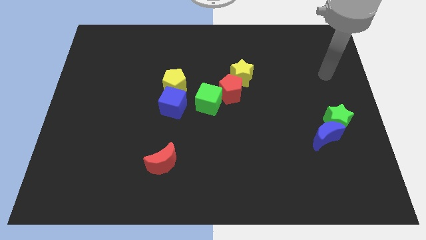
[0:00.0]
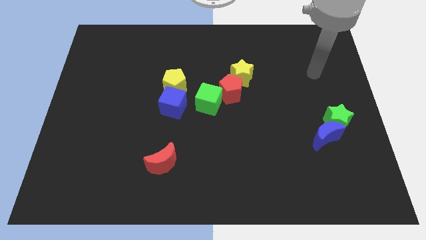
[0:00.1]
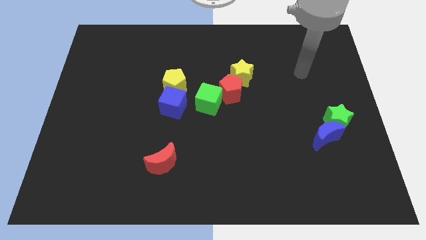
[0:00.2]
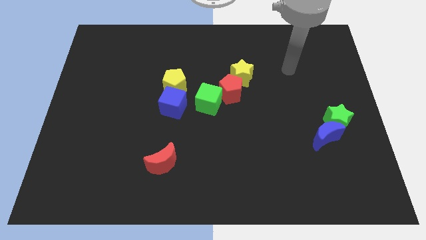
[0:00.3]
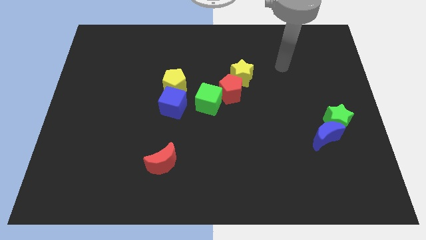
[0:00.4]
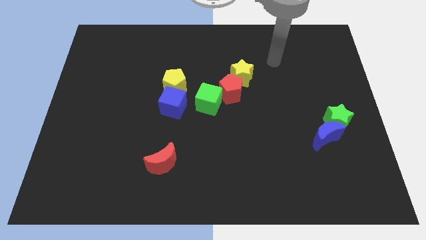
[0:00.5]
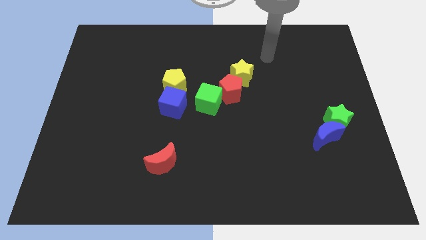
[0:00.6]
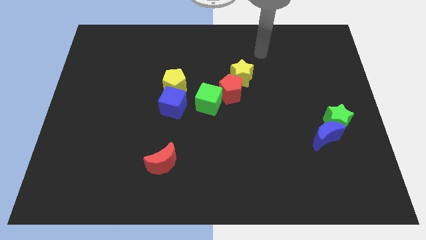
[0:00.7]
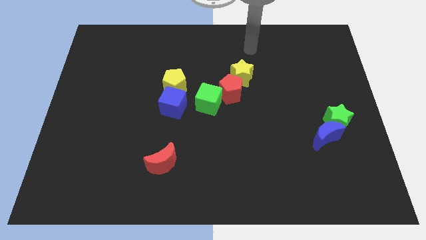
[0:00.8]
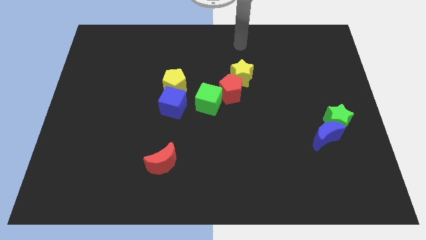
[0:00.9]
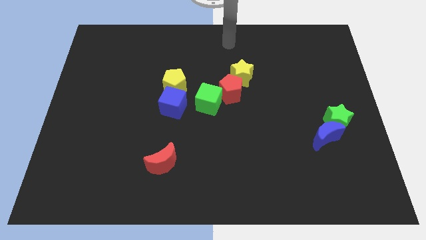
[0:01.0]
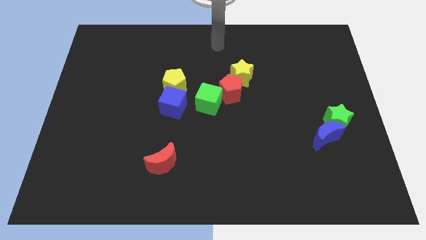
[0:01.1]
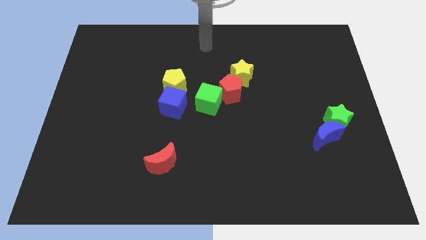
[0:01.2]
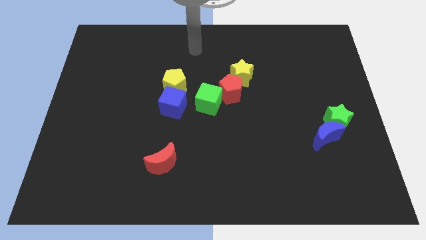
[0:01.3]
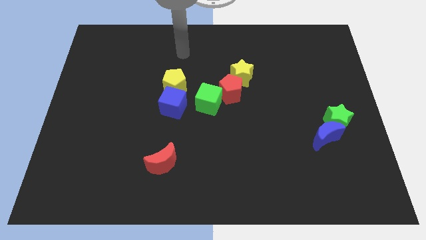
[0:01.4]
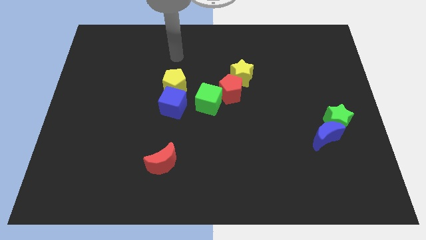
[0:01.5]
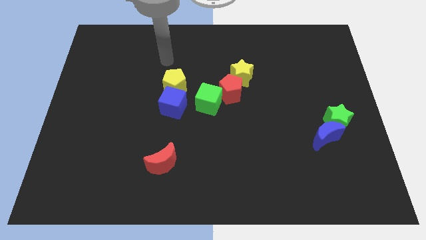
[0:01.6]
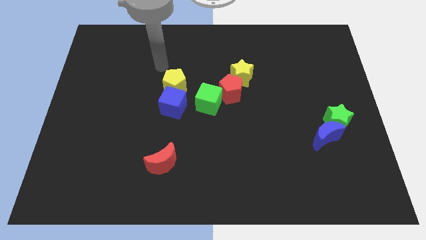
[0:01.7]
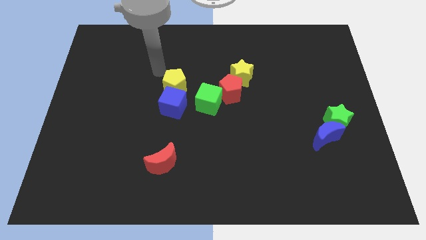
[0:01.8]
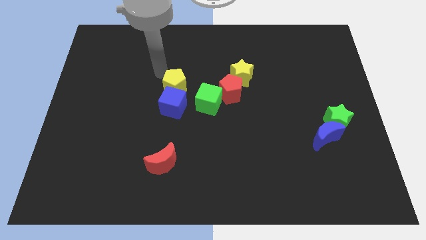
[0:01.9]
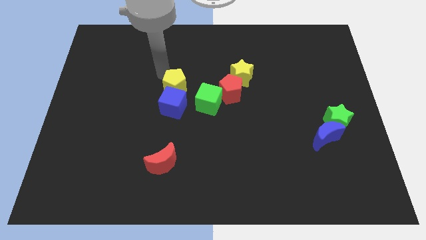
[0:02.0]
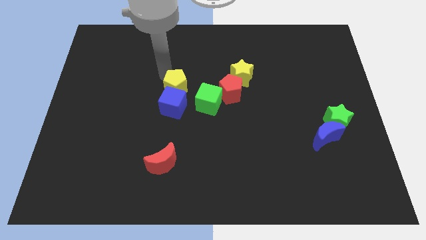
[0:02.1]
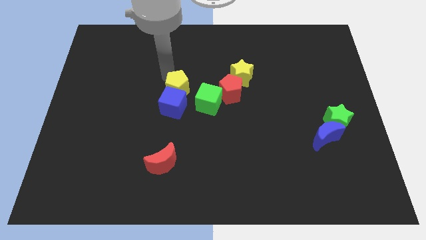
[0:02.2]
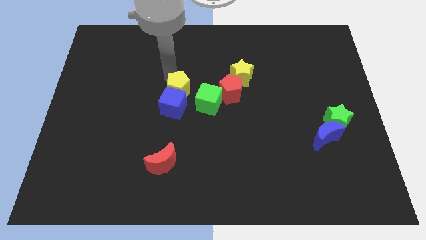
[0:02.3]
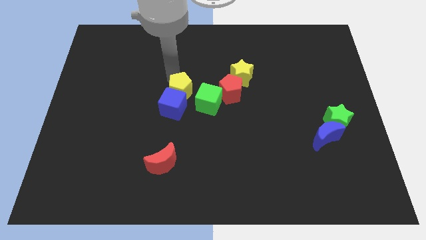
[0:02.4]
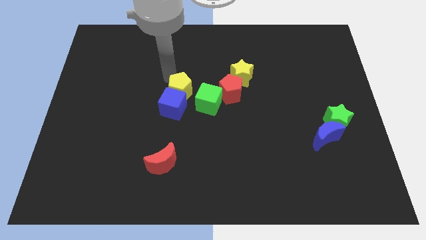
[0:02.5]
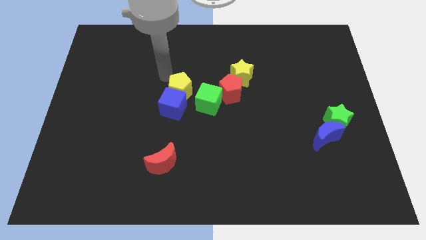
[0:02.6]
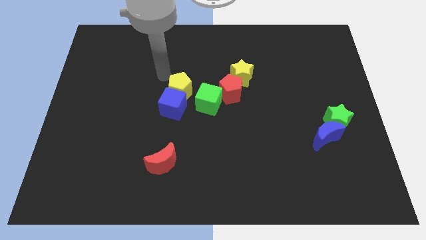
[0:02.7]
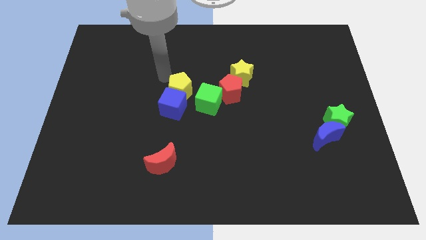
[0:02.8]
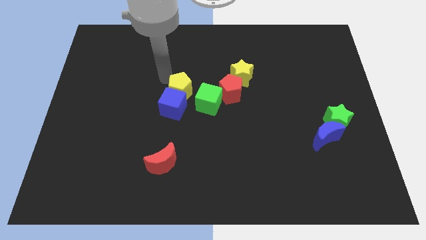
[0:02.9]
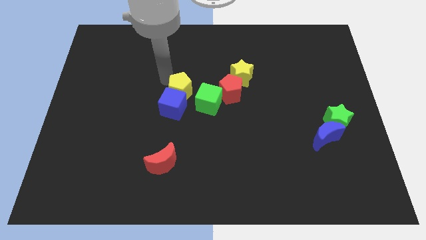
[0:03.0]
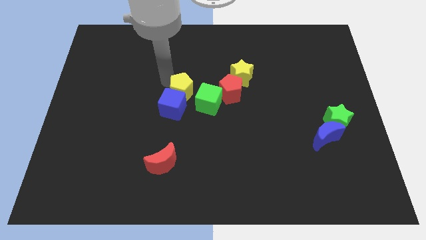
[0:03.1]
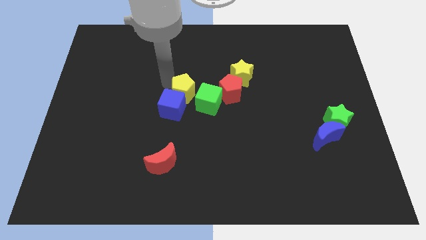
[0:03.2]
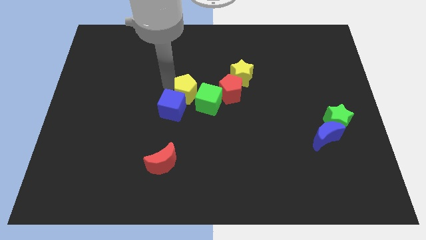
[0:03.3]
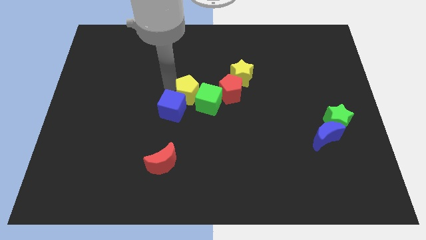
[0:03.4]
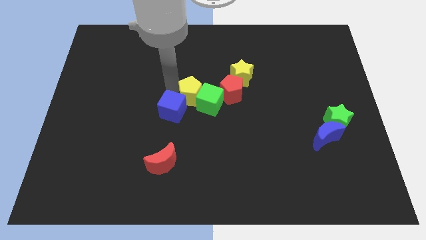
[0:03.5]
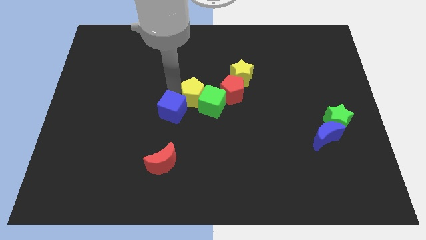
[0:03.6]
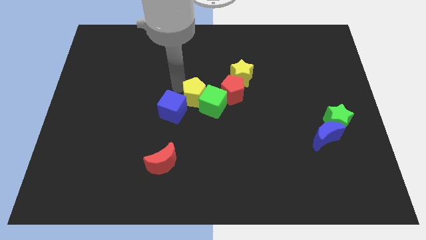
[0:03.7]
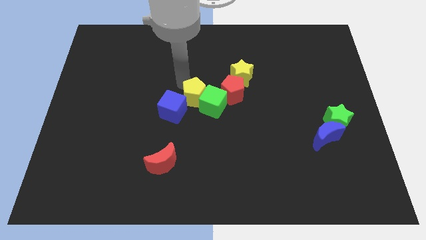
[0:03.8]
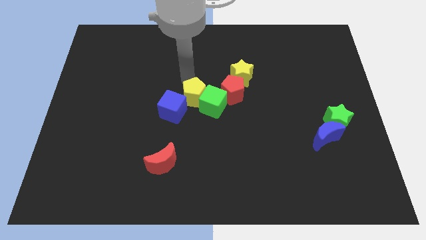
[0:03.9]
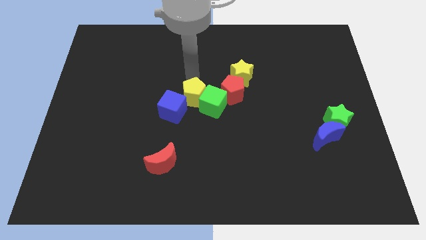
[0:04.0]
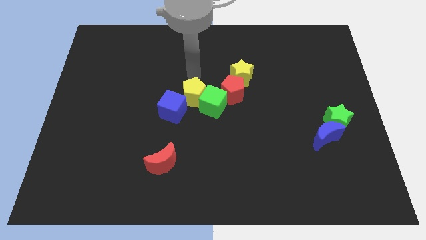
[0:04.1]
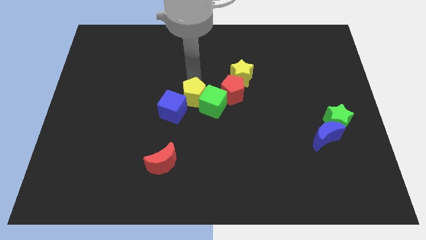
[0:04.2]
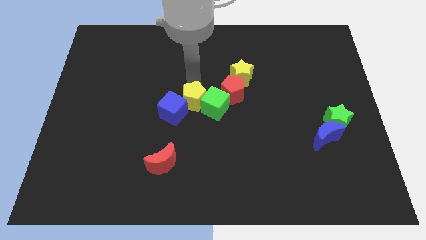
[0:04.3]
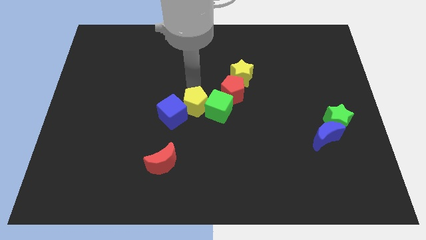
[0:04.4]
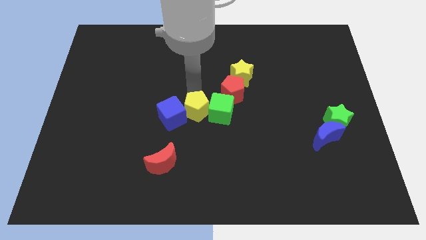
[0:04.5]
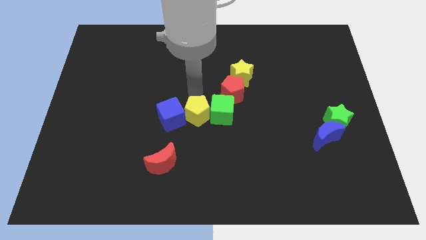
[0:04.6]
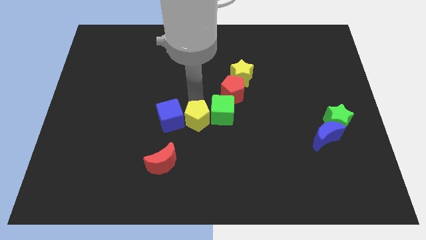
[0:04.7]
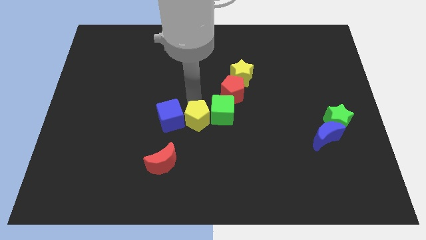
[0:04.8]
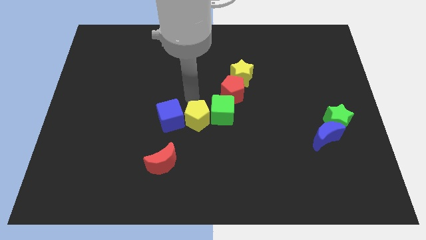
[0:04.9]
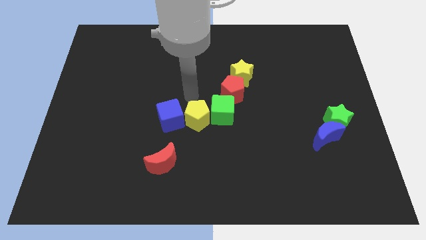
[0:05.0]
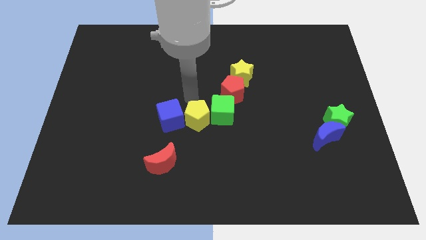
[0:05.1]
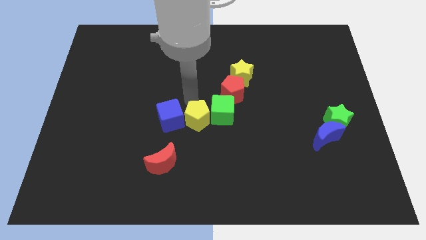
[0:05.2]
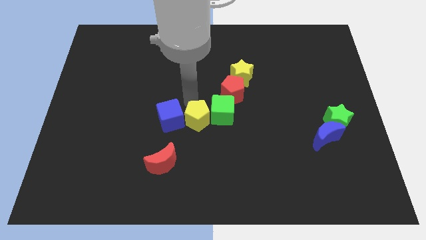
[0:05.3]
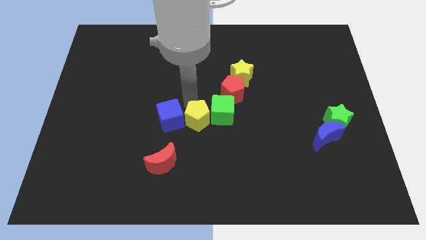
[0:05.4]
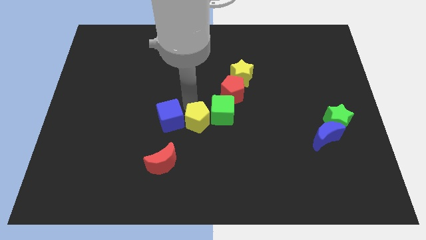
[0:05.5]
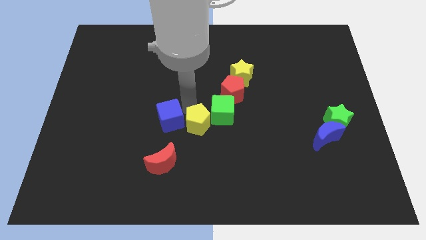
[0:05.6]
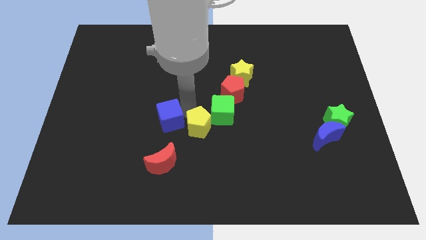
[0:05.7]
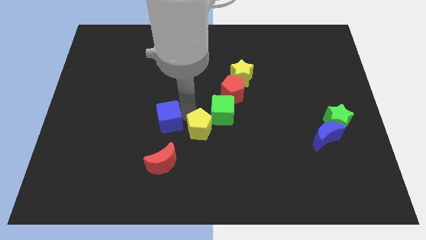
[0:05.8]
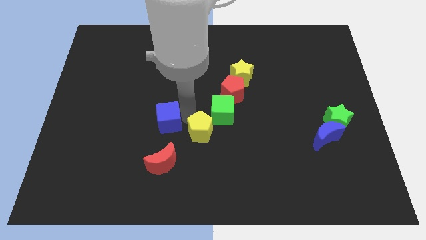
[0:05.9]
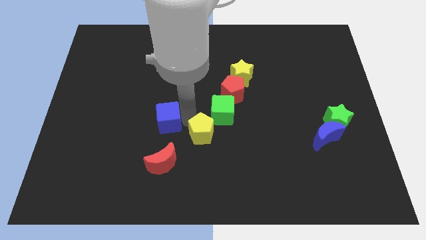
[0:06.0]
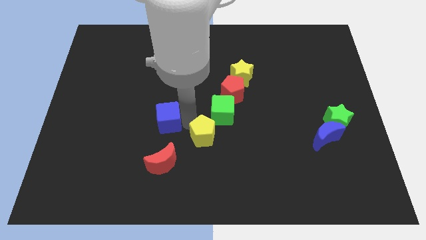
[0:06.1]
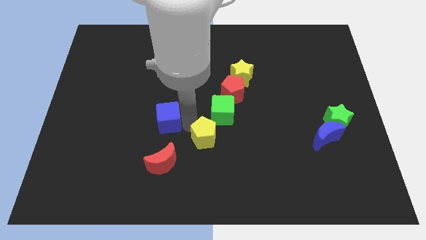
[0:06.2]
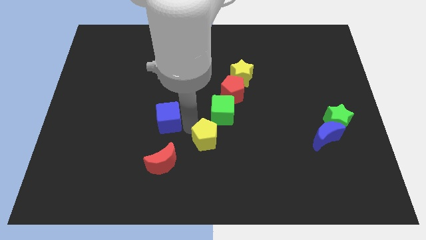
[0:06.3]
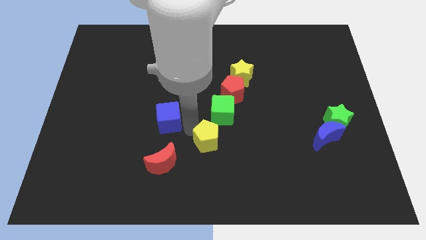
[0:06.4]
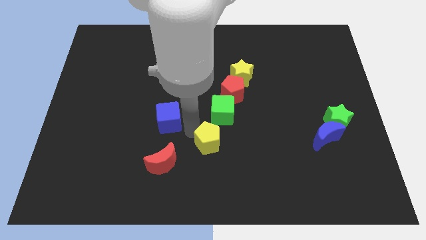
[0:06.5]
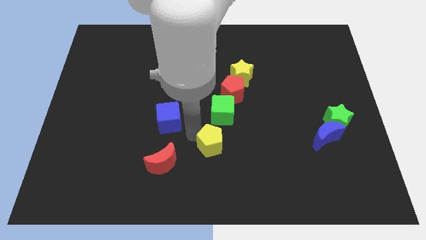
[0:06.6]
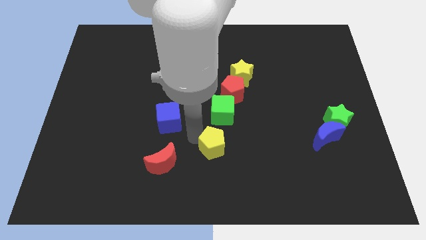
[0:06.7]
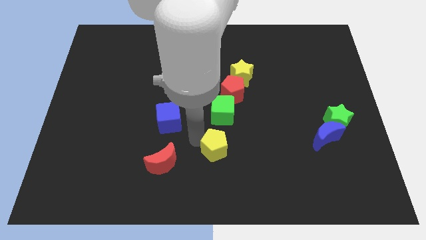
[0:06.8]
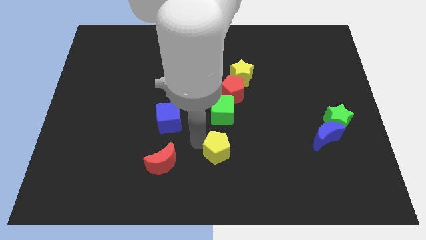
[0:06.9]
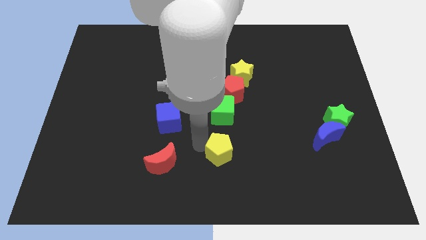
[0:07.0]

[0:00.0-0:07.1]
push the yellow pentagon down and to the right diagonally

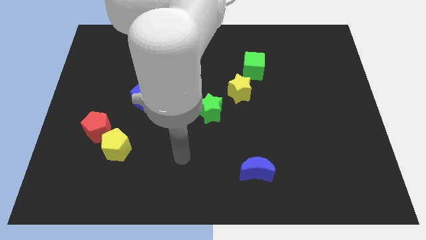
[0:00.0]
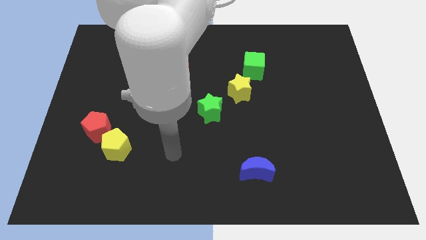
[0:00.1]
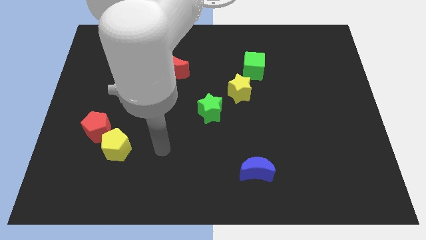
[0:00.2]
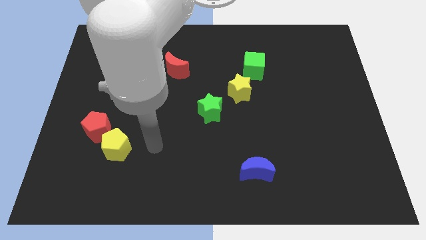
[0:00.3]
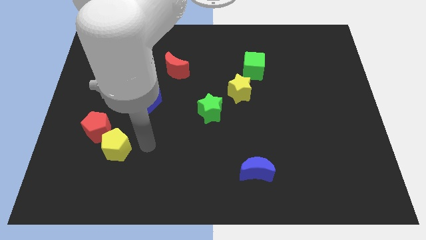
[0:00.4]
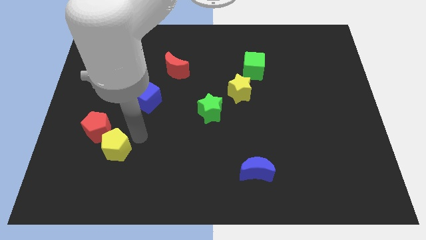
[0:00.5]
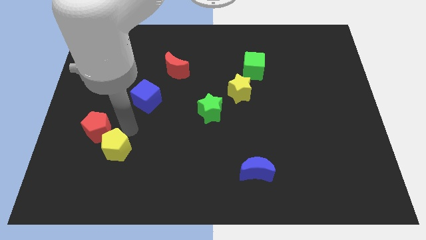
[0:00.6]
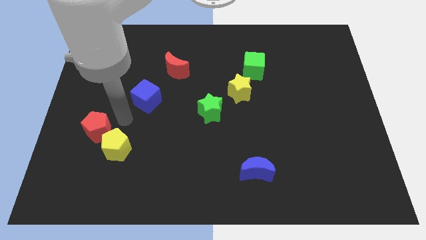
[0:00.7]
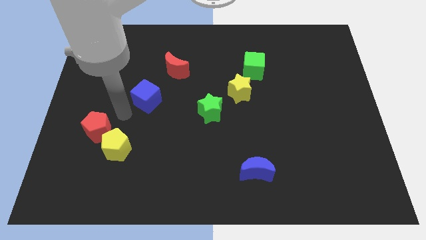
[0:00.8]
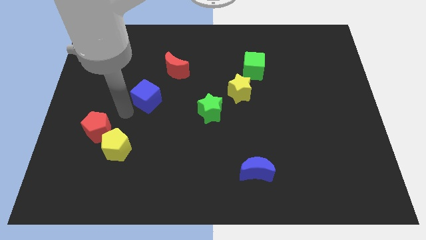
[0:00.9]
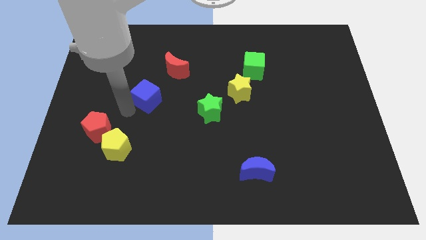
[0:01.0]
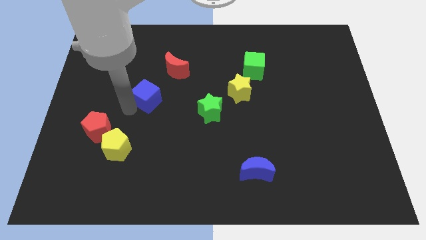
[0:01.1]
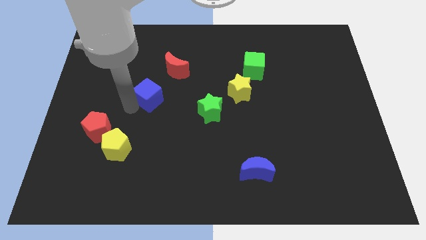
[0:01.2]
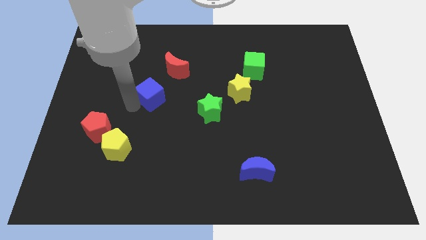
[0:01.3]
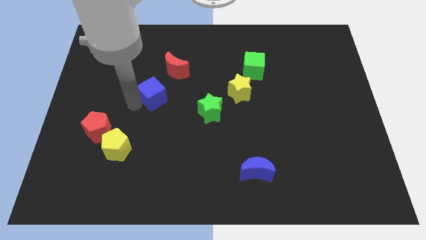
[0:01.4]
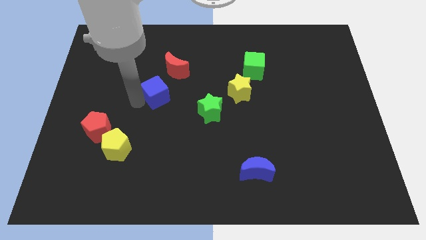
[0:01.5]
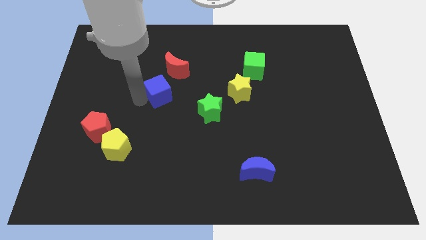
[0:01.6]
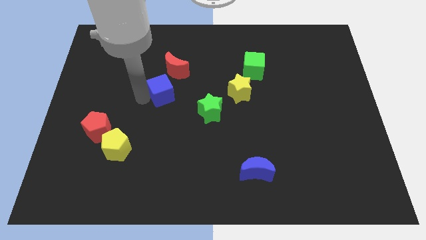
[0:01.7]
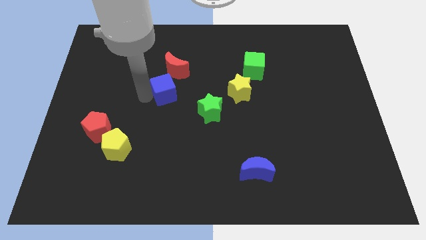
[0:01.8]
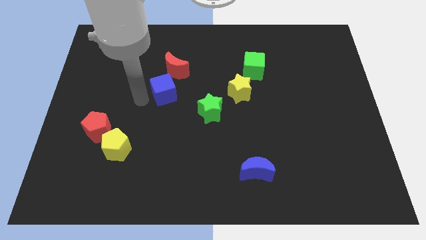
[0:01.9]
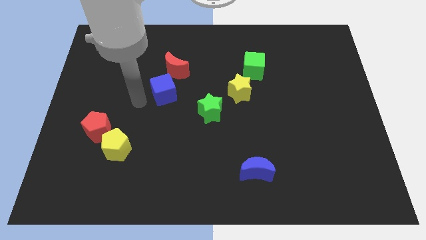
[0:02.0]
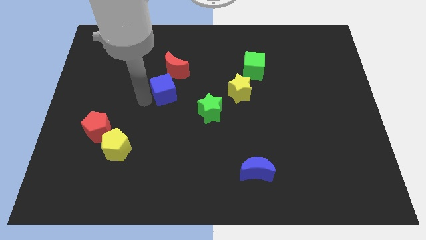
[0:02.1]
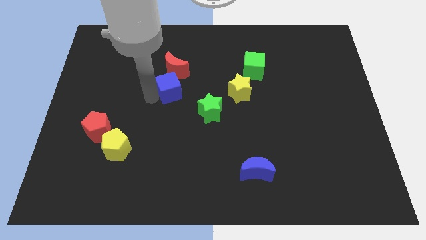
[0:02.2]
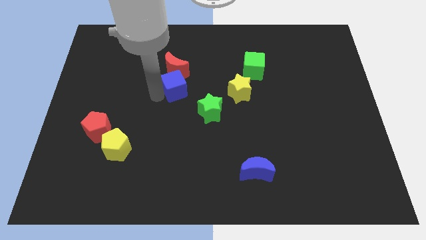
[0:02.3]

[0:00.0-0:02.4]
slightly move the blue cube diagonally upwards and to the right
